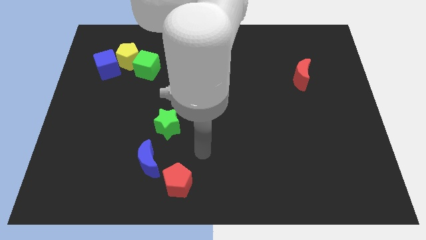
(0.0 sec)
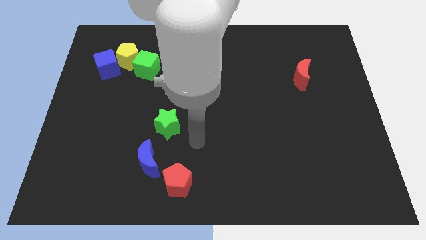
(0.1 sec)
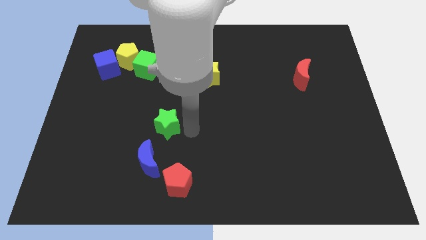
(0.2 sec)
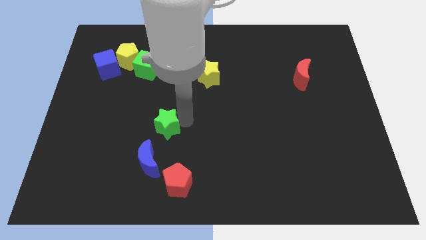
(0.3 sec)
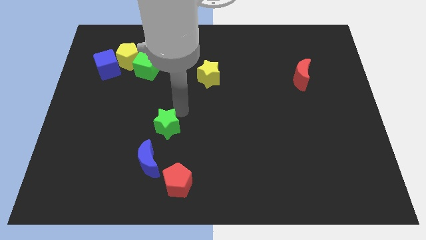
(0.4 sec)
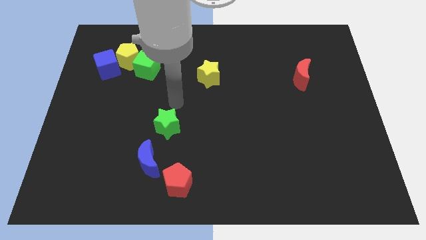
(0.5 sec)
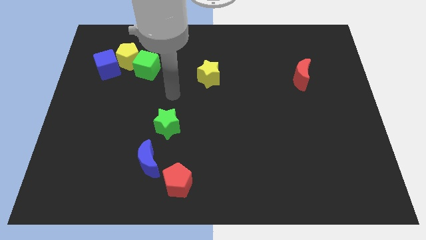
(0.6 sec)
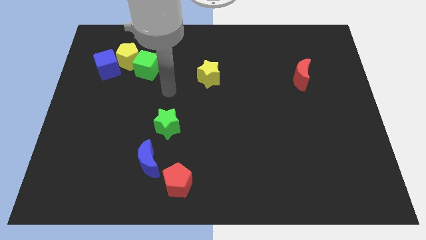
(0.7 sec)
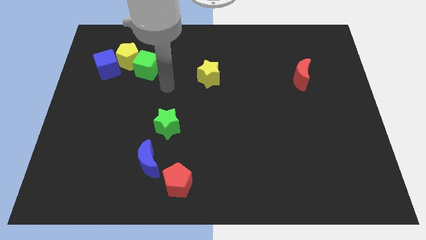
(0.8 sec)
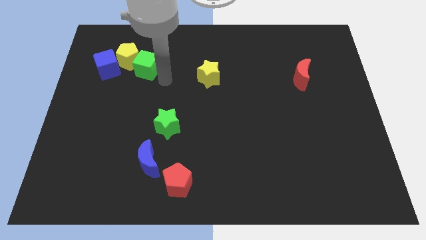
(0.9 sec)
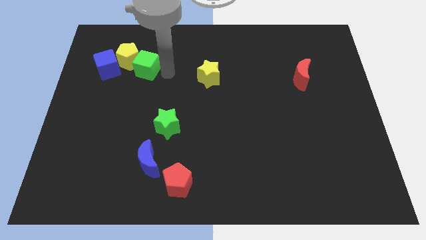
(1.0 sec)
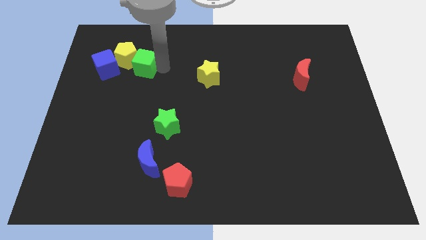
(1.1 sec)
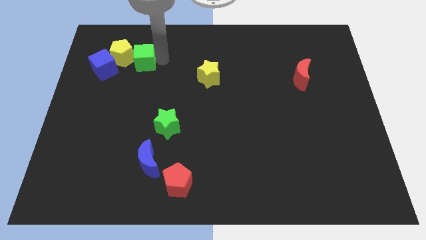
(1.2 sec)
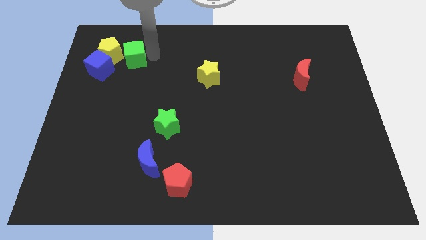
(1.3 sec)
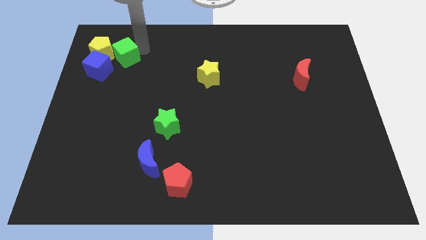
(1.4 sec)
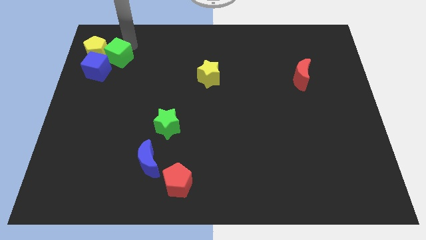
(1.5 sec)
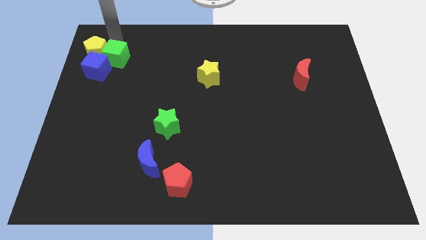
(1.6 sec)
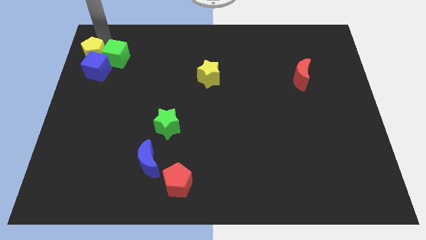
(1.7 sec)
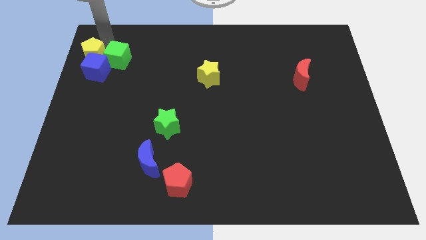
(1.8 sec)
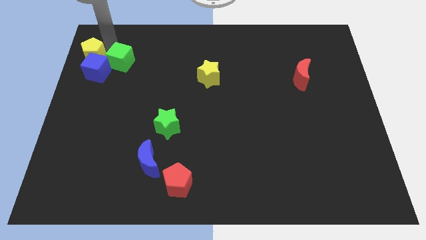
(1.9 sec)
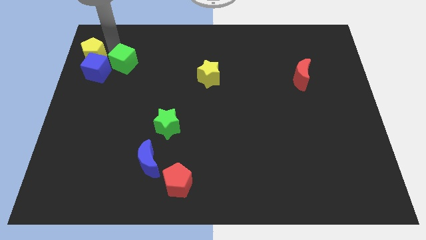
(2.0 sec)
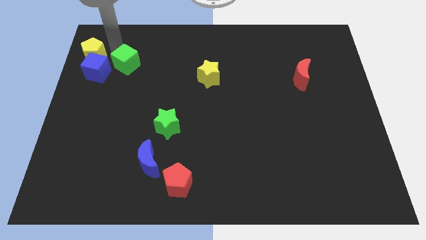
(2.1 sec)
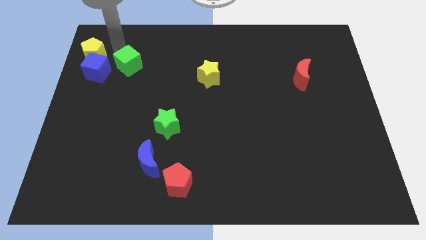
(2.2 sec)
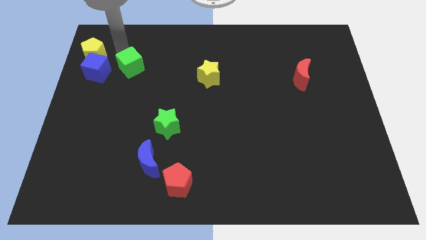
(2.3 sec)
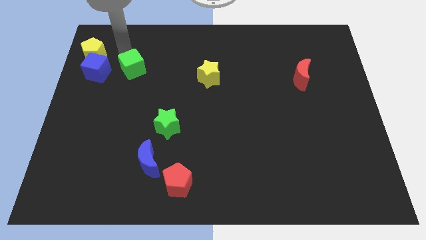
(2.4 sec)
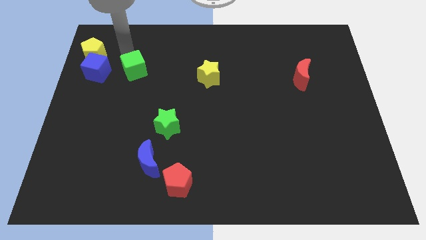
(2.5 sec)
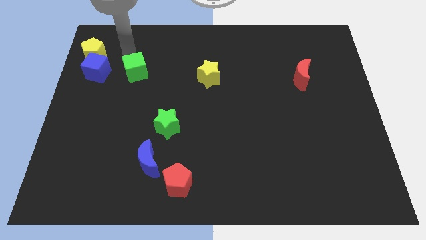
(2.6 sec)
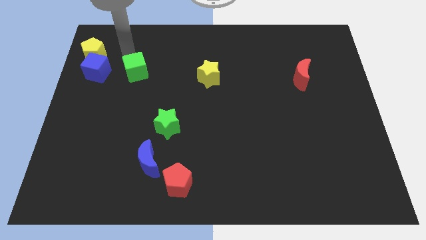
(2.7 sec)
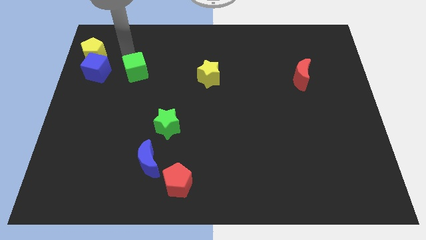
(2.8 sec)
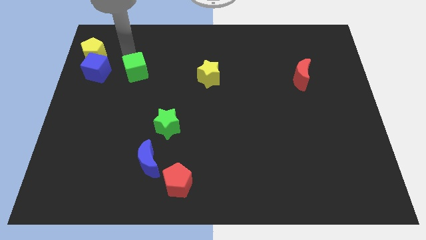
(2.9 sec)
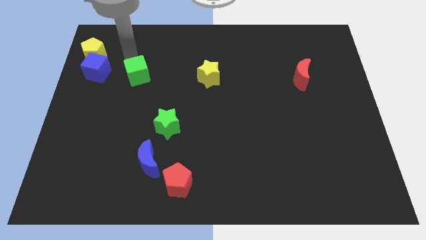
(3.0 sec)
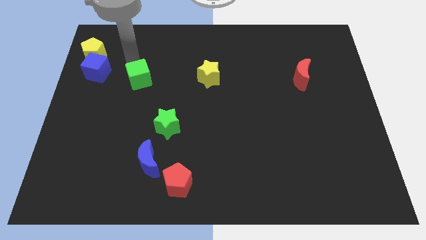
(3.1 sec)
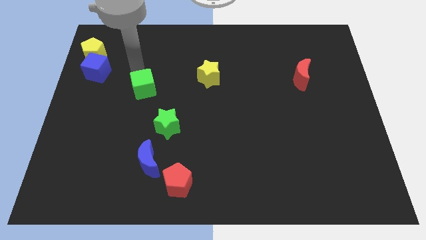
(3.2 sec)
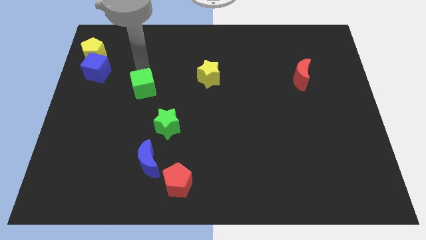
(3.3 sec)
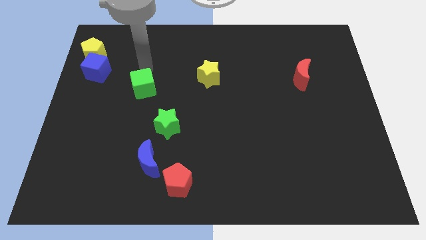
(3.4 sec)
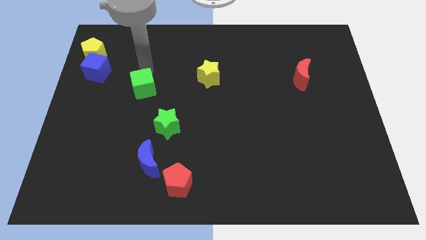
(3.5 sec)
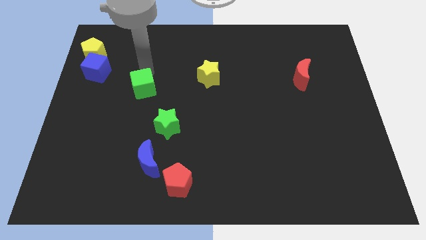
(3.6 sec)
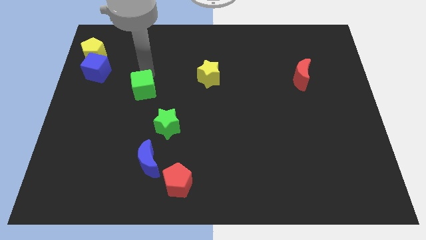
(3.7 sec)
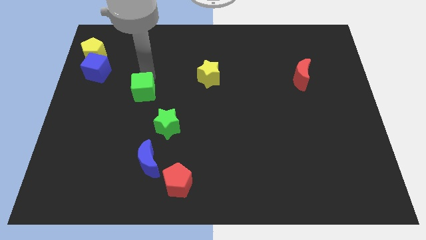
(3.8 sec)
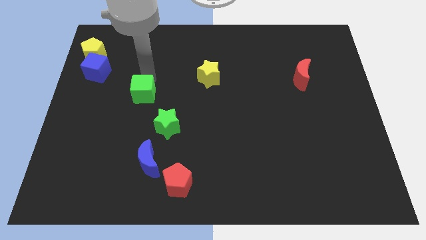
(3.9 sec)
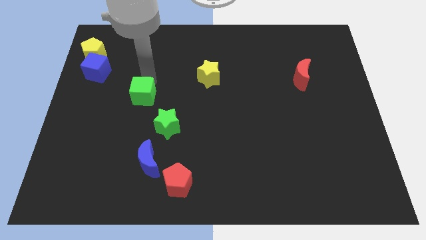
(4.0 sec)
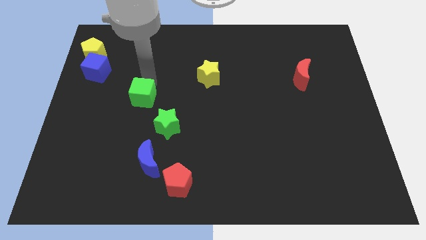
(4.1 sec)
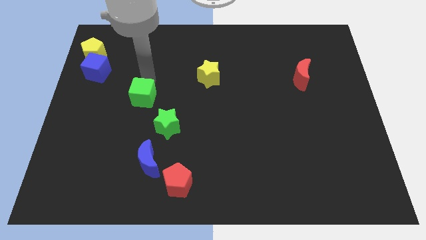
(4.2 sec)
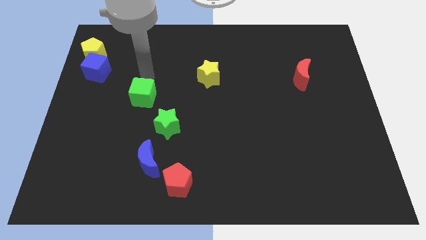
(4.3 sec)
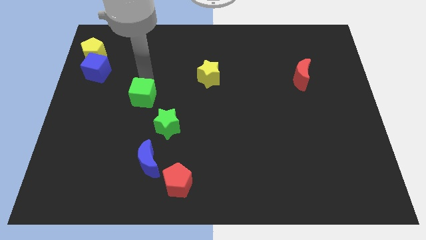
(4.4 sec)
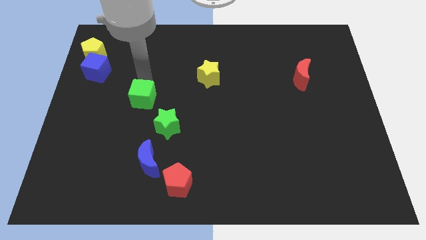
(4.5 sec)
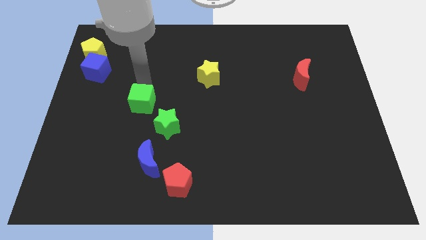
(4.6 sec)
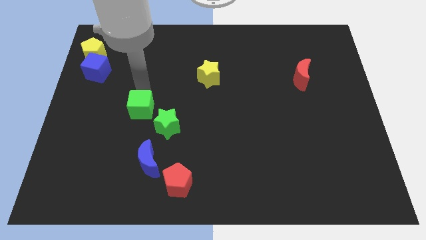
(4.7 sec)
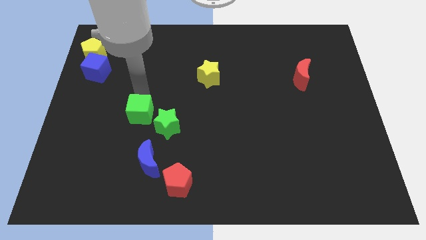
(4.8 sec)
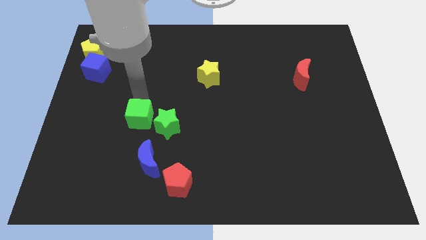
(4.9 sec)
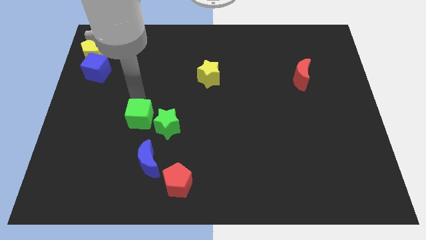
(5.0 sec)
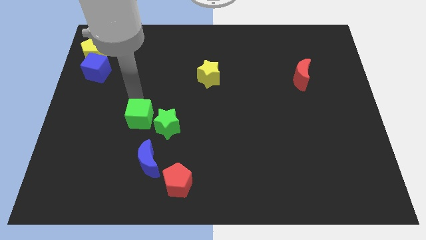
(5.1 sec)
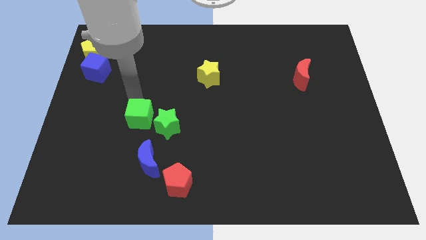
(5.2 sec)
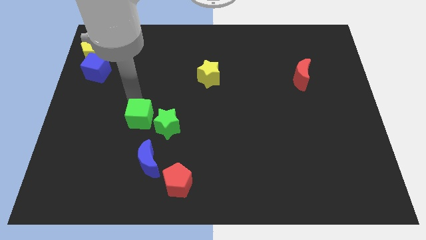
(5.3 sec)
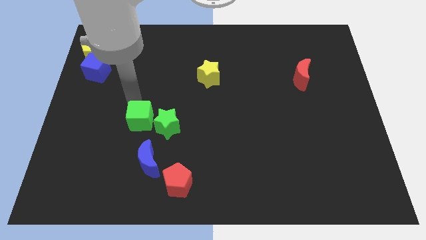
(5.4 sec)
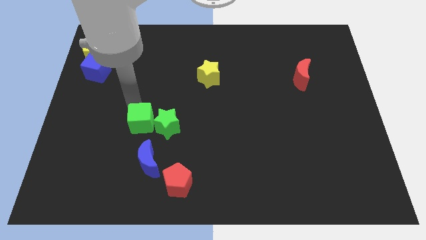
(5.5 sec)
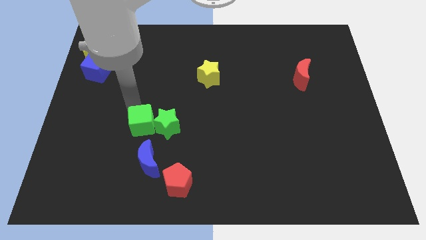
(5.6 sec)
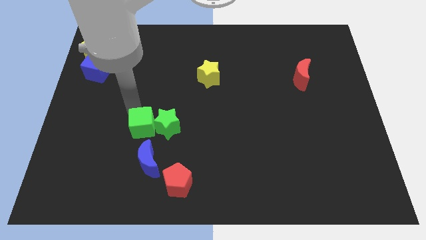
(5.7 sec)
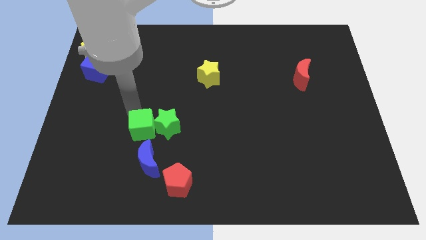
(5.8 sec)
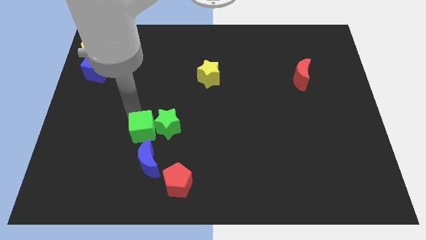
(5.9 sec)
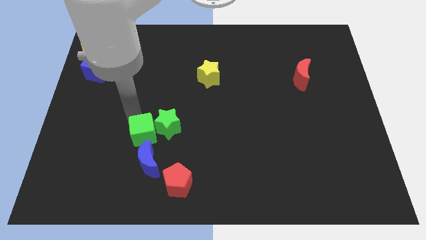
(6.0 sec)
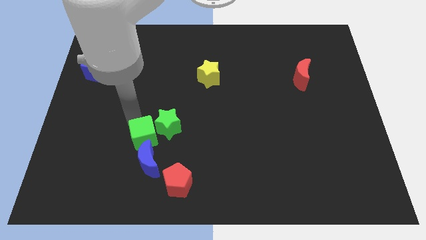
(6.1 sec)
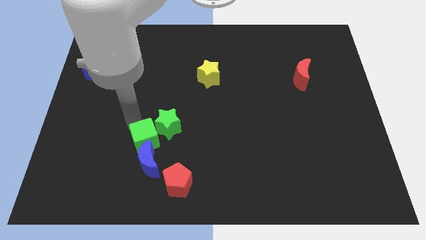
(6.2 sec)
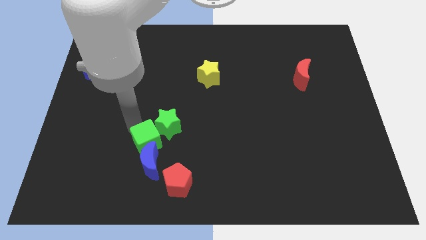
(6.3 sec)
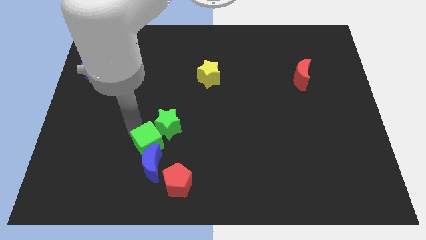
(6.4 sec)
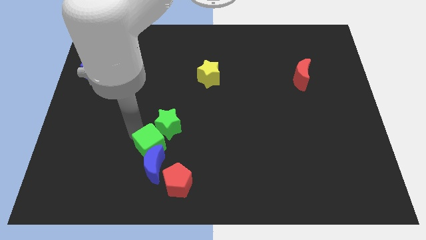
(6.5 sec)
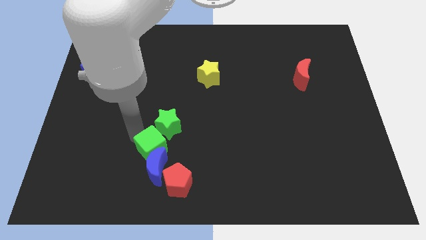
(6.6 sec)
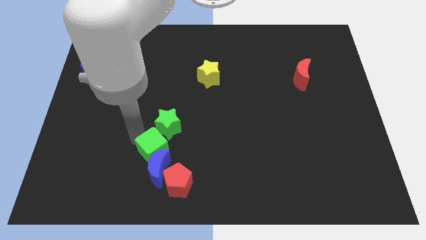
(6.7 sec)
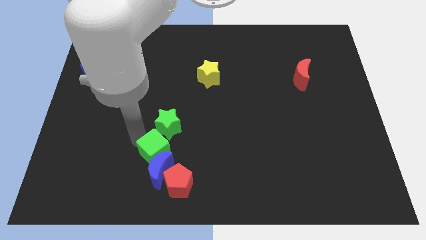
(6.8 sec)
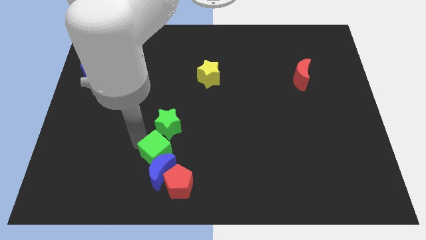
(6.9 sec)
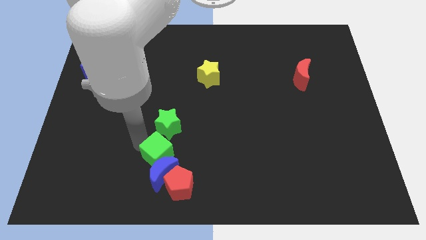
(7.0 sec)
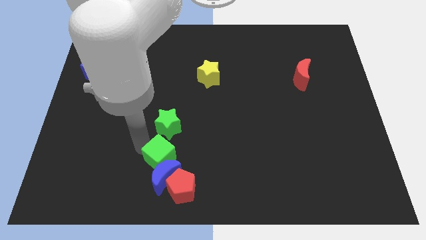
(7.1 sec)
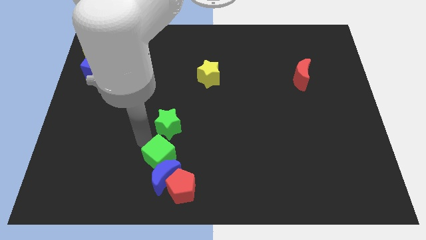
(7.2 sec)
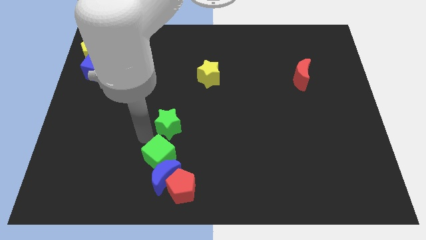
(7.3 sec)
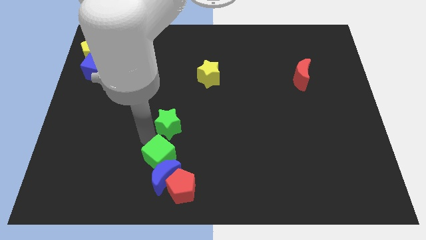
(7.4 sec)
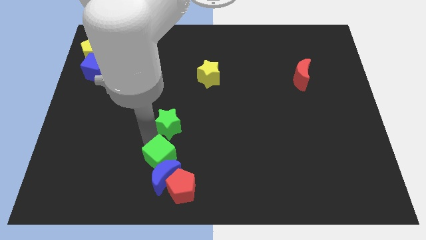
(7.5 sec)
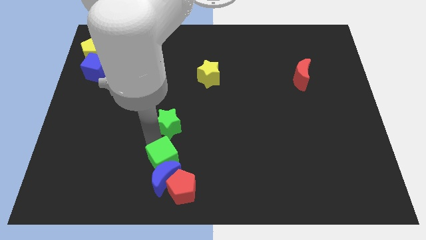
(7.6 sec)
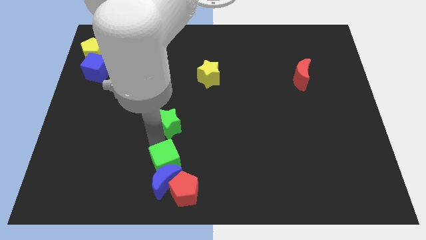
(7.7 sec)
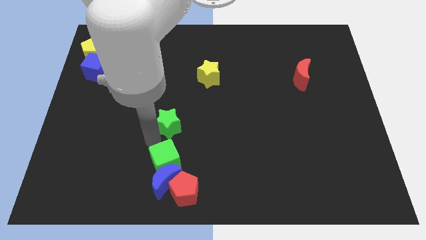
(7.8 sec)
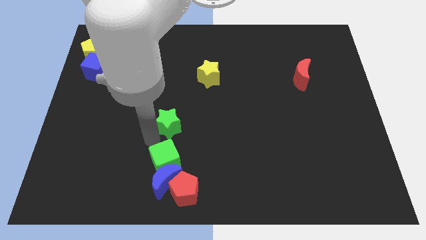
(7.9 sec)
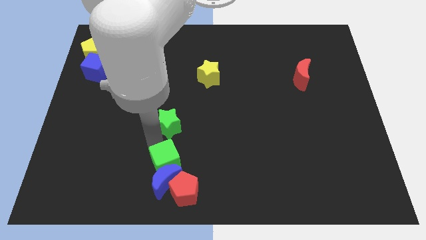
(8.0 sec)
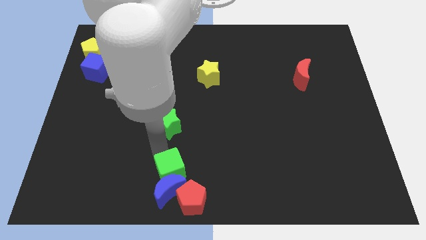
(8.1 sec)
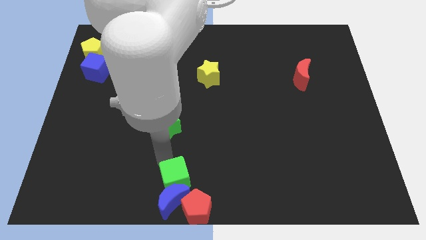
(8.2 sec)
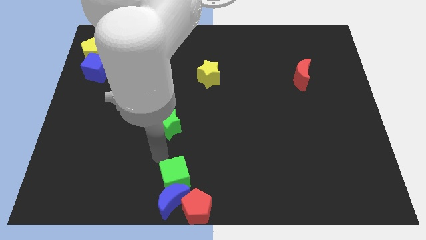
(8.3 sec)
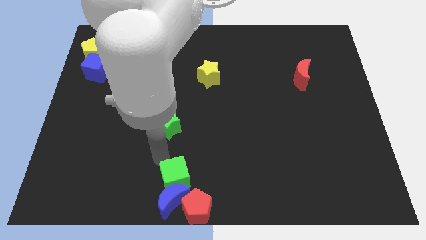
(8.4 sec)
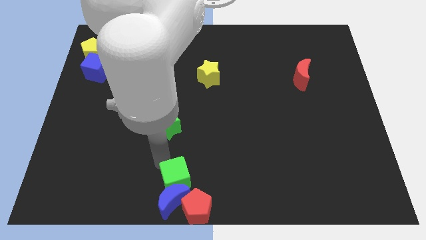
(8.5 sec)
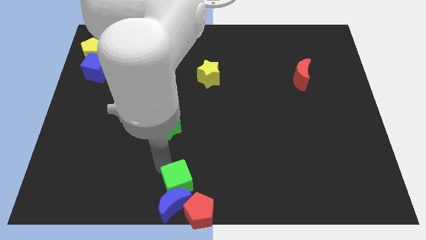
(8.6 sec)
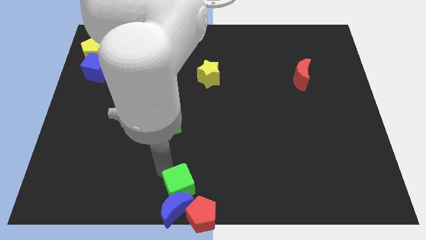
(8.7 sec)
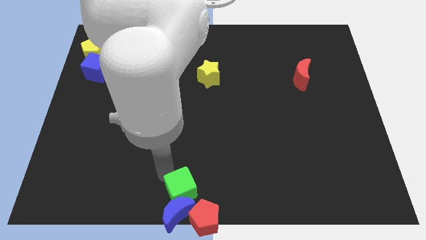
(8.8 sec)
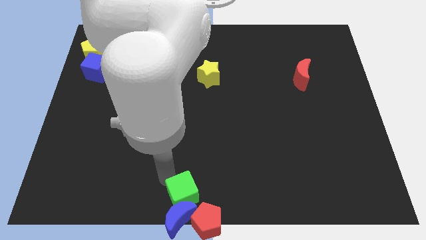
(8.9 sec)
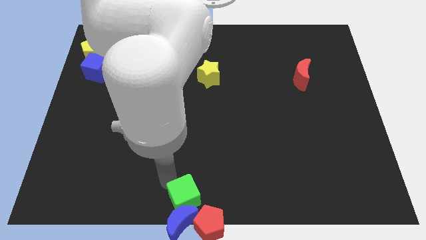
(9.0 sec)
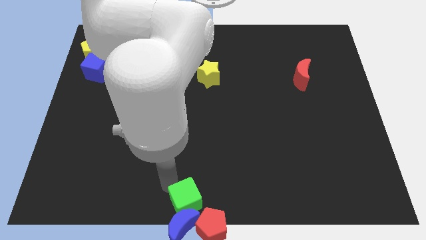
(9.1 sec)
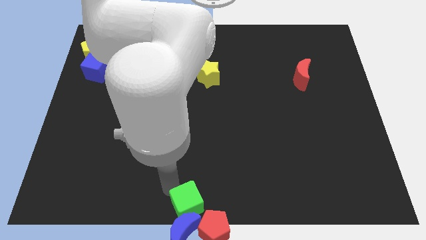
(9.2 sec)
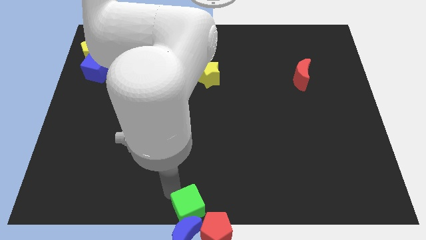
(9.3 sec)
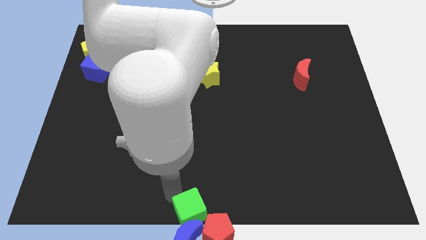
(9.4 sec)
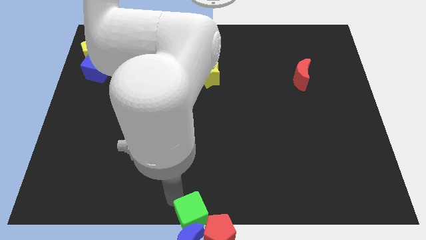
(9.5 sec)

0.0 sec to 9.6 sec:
move the green cube next to the red pentagon
